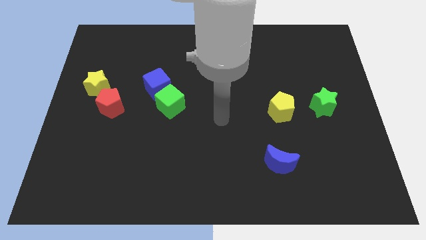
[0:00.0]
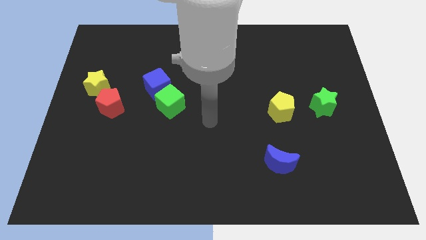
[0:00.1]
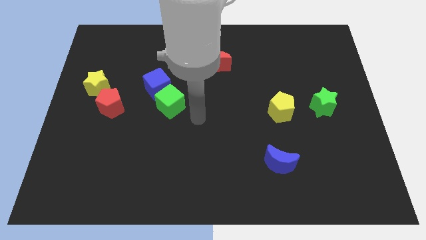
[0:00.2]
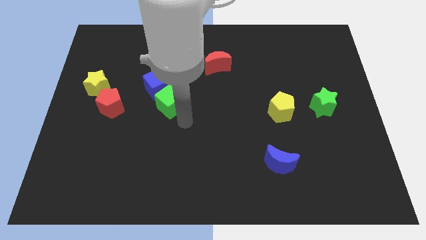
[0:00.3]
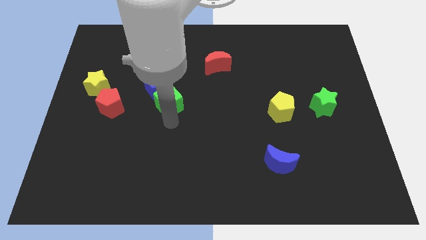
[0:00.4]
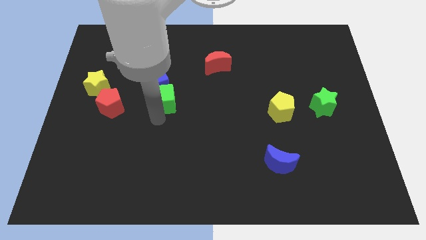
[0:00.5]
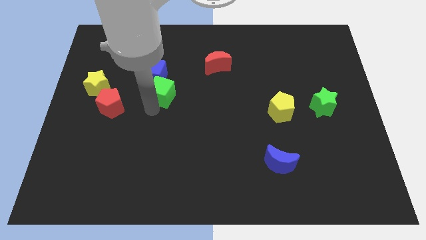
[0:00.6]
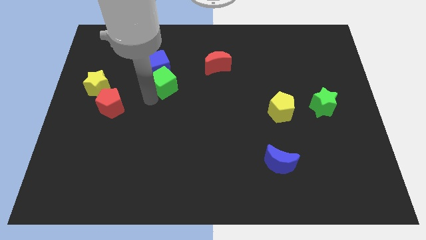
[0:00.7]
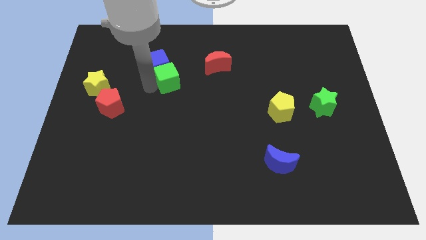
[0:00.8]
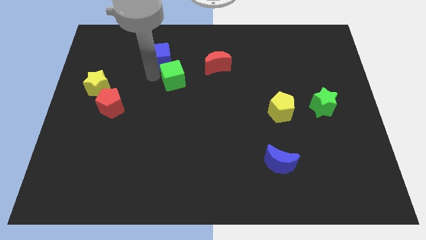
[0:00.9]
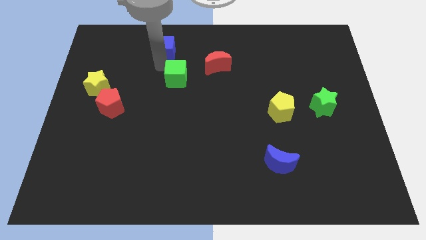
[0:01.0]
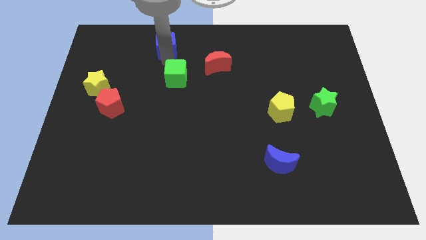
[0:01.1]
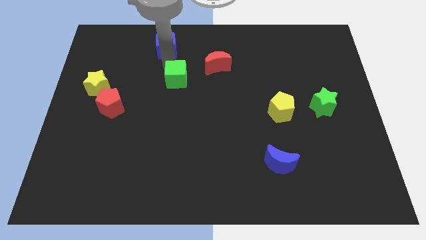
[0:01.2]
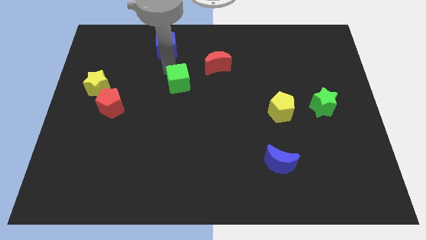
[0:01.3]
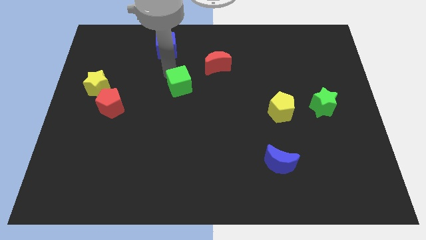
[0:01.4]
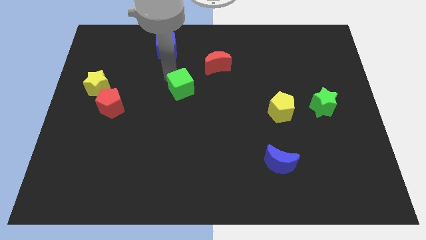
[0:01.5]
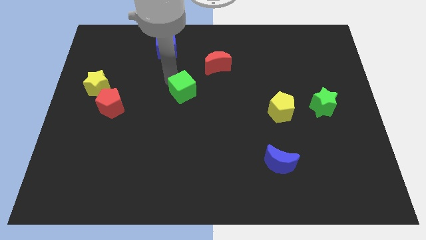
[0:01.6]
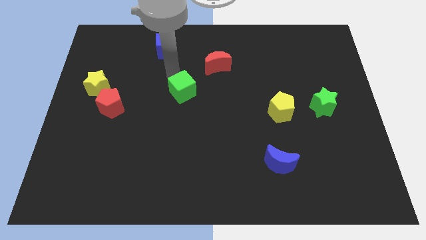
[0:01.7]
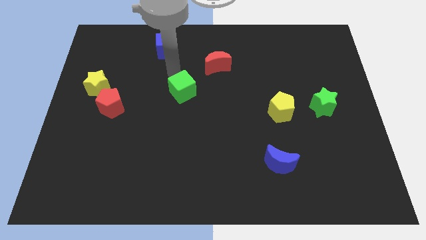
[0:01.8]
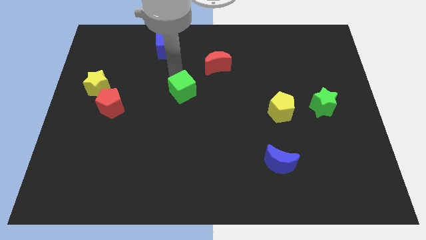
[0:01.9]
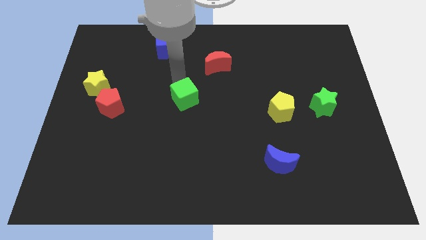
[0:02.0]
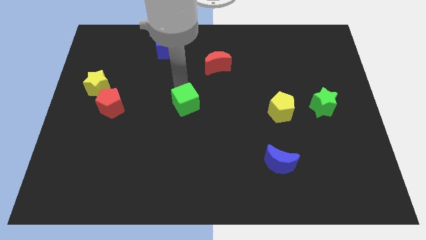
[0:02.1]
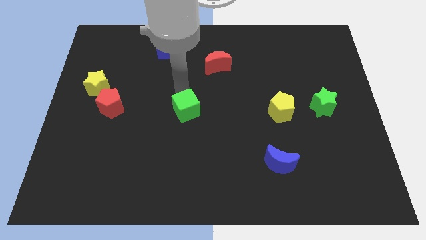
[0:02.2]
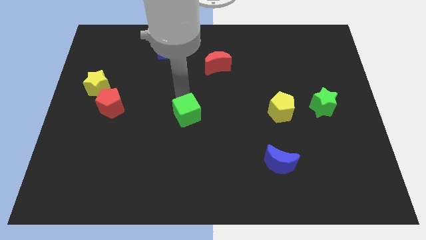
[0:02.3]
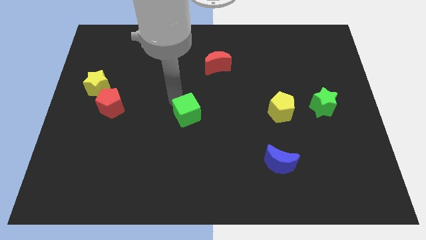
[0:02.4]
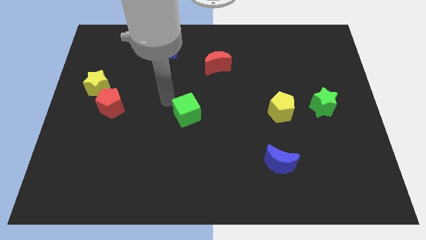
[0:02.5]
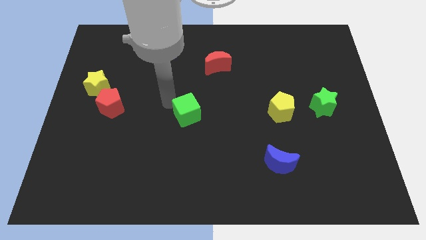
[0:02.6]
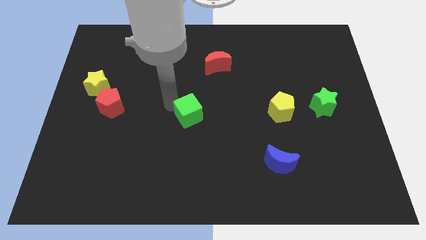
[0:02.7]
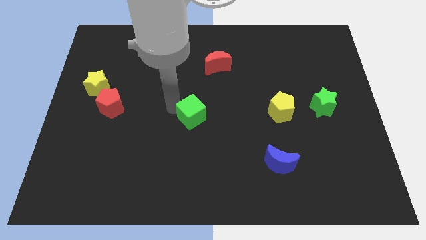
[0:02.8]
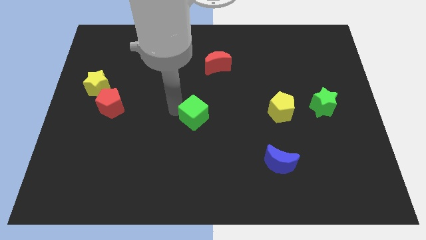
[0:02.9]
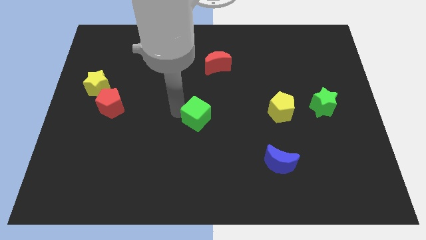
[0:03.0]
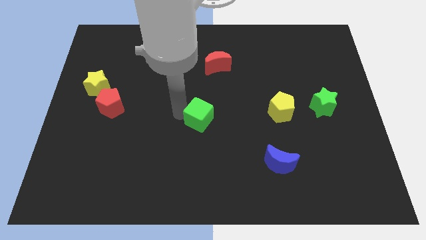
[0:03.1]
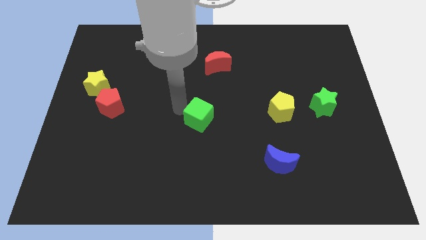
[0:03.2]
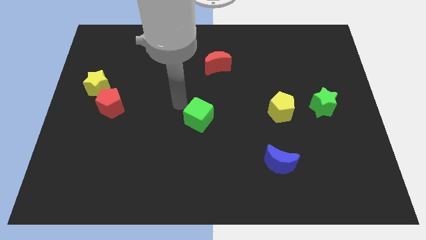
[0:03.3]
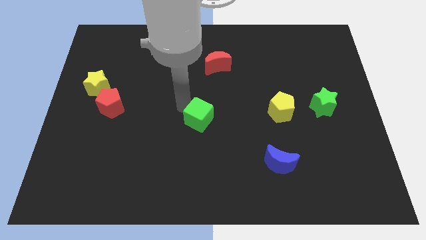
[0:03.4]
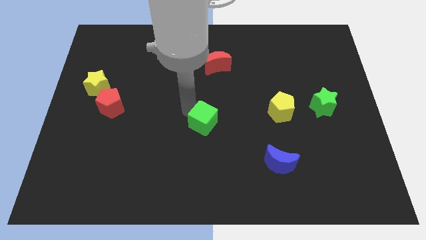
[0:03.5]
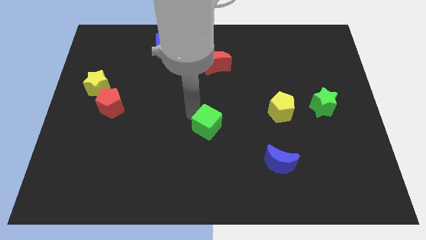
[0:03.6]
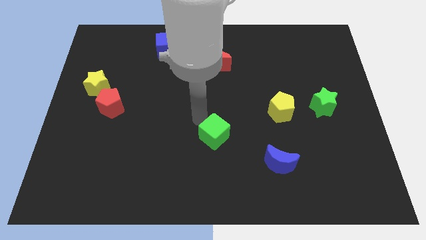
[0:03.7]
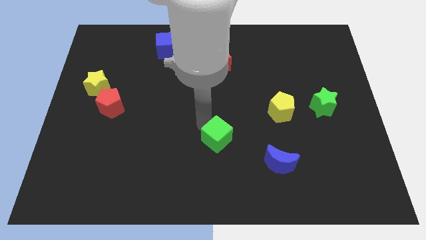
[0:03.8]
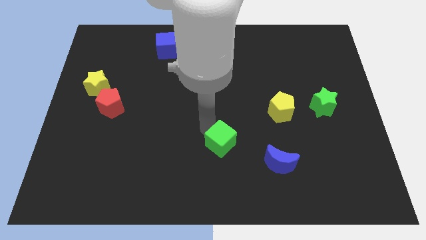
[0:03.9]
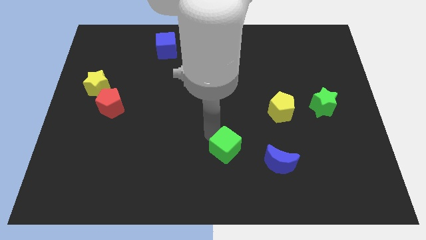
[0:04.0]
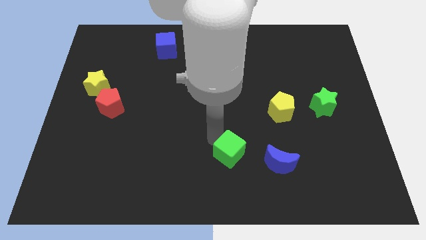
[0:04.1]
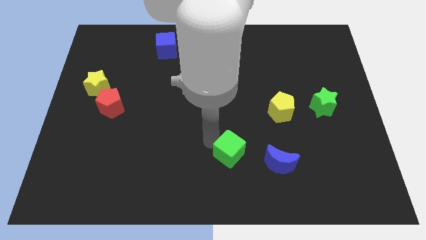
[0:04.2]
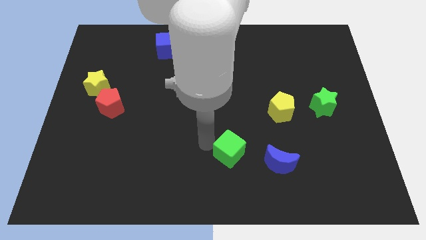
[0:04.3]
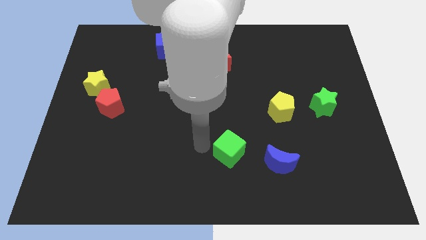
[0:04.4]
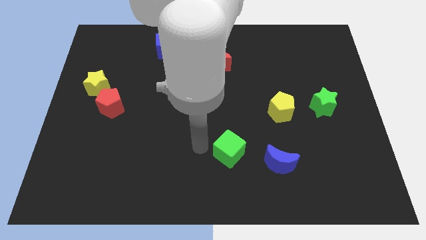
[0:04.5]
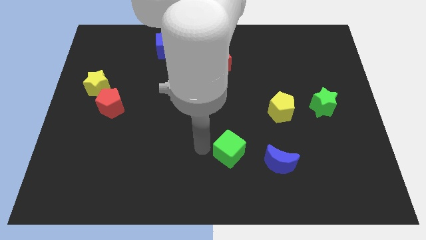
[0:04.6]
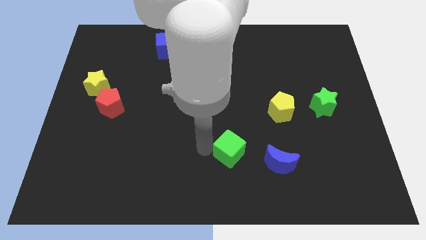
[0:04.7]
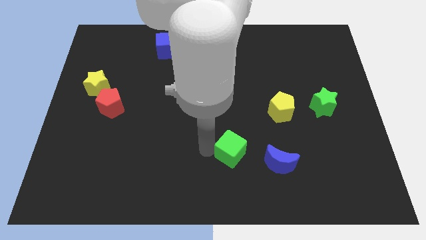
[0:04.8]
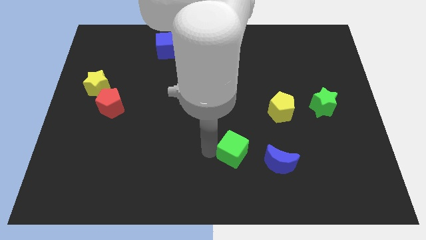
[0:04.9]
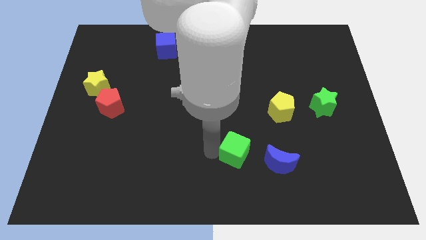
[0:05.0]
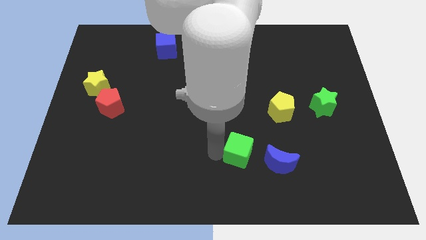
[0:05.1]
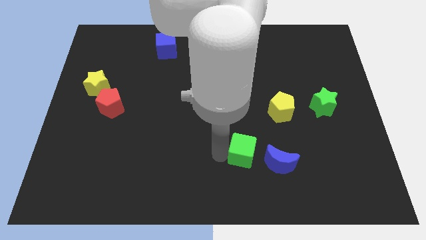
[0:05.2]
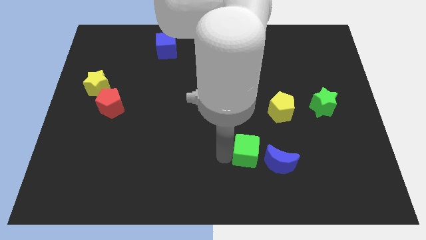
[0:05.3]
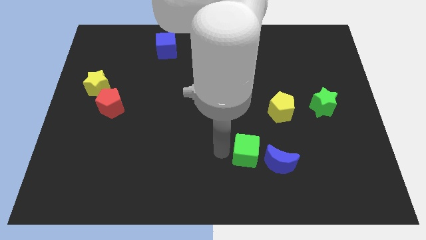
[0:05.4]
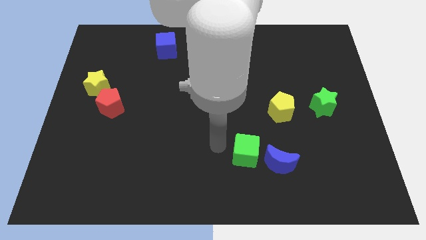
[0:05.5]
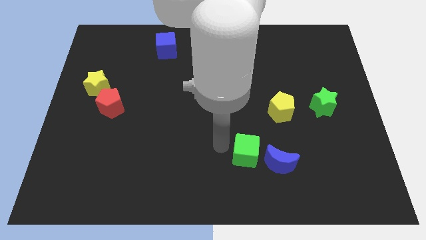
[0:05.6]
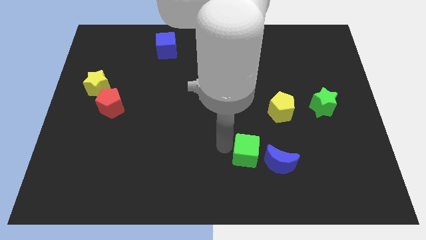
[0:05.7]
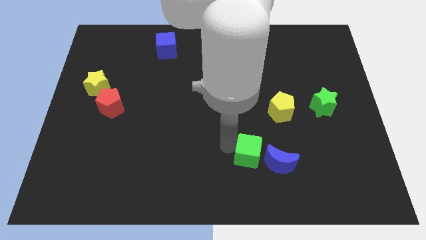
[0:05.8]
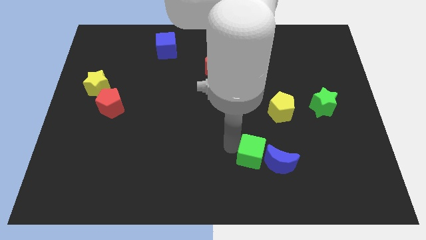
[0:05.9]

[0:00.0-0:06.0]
slide the green cube close to the blue moon

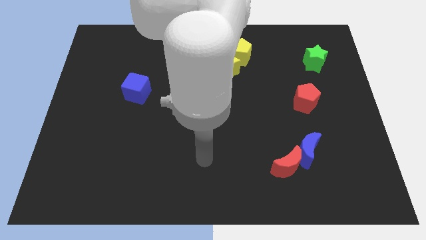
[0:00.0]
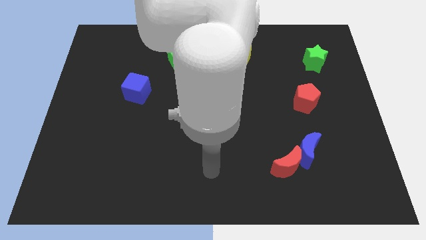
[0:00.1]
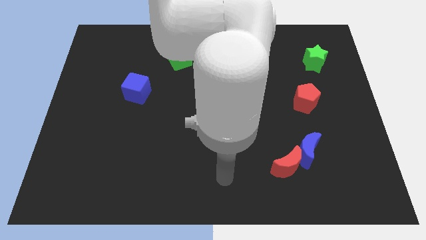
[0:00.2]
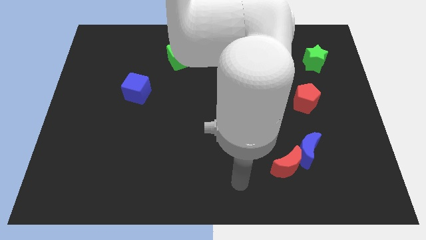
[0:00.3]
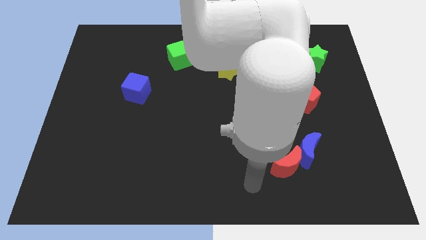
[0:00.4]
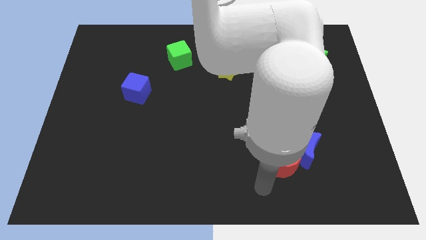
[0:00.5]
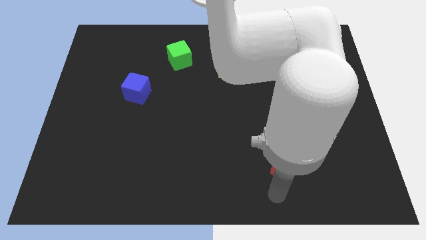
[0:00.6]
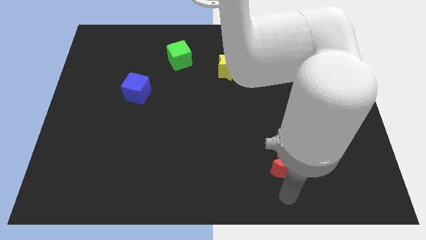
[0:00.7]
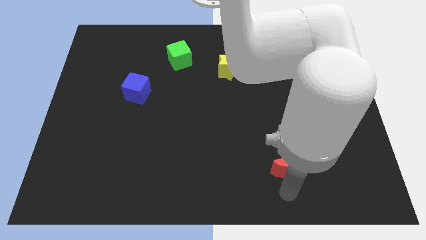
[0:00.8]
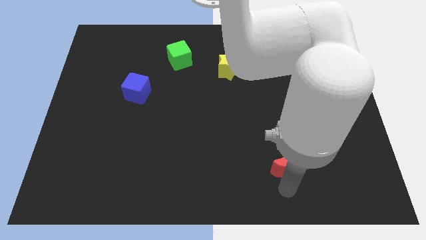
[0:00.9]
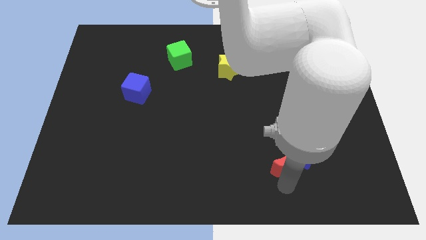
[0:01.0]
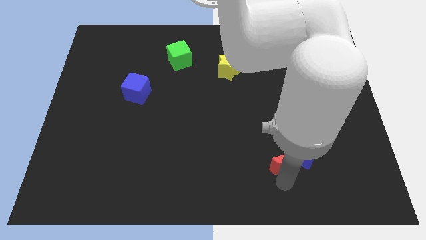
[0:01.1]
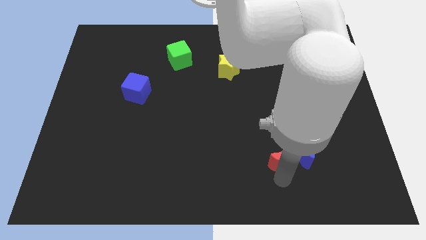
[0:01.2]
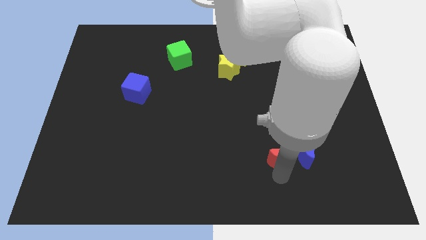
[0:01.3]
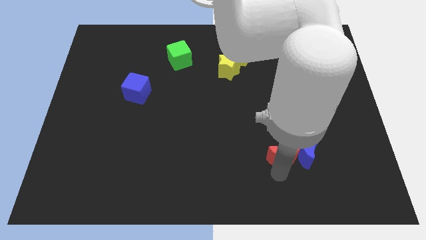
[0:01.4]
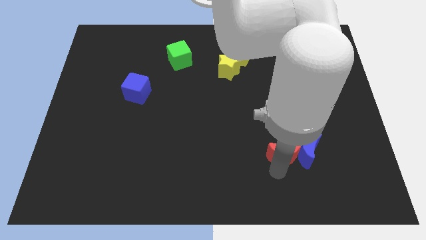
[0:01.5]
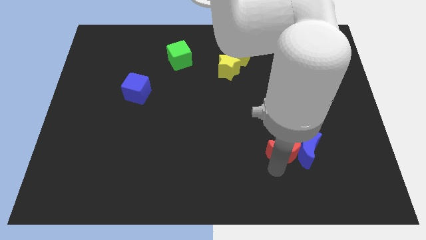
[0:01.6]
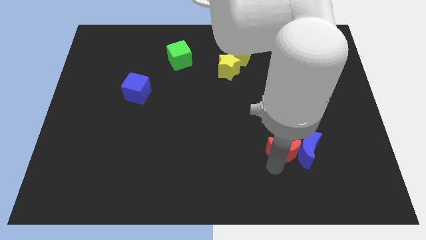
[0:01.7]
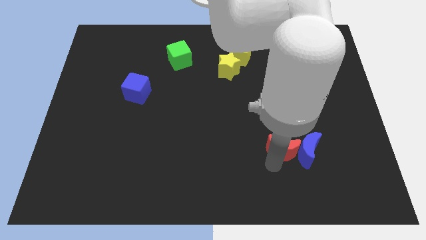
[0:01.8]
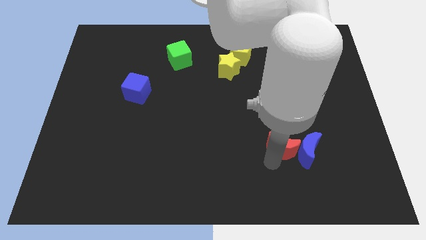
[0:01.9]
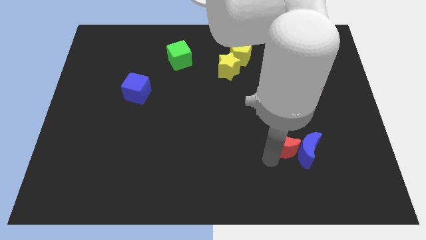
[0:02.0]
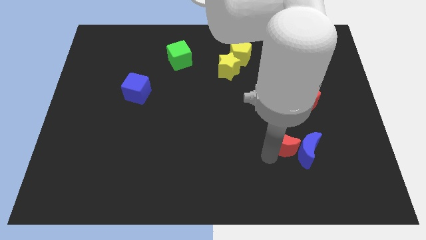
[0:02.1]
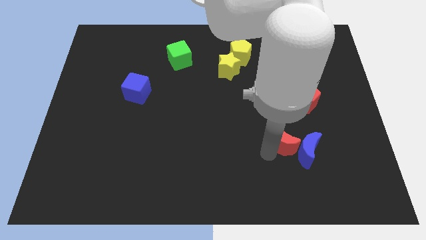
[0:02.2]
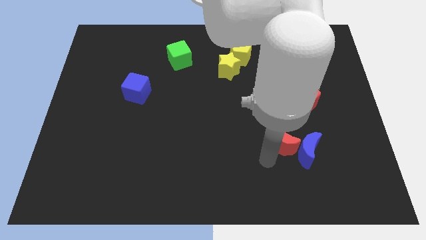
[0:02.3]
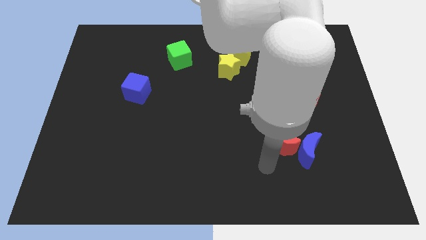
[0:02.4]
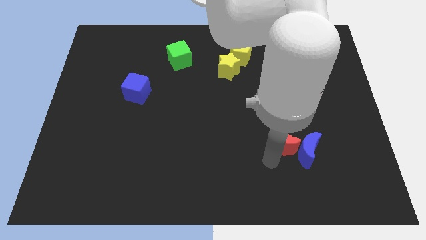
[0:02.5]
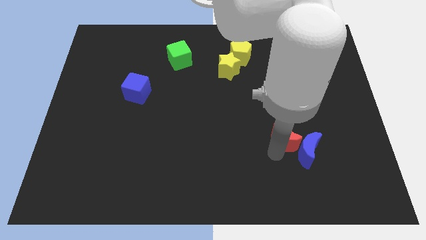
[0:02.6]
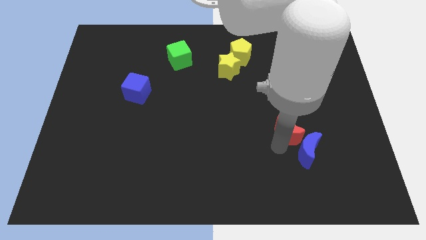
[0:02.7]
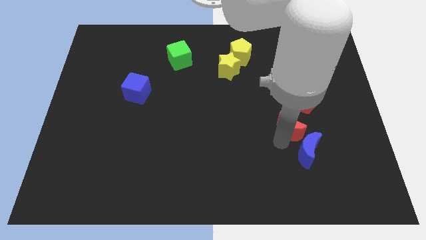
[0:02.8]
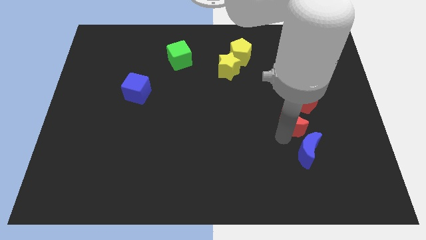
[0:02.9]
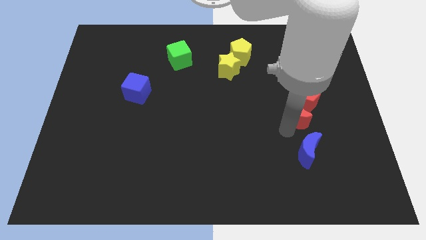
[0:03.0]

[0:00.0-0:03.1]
slide the red moon close to the red pentagon
